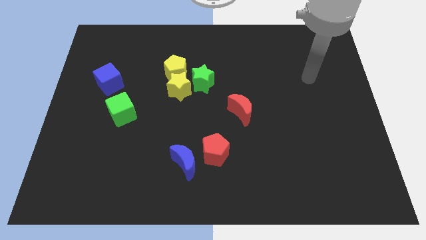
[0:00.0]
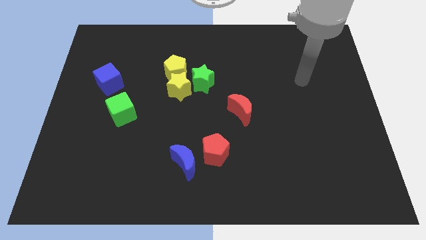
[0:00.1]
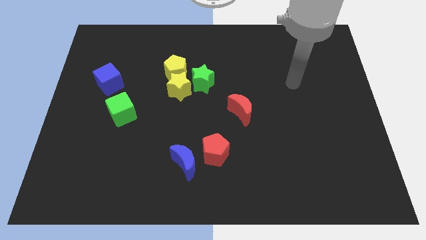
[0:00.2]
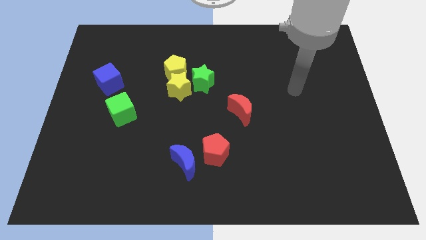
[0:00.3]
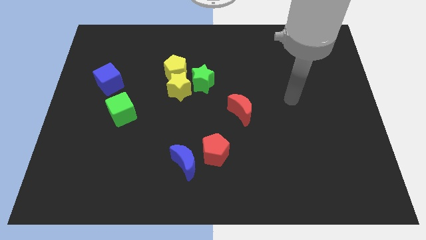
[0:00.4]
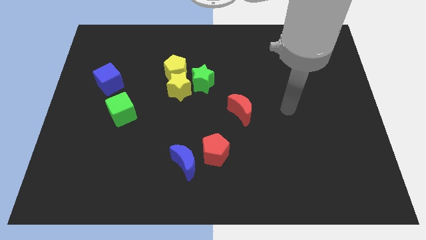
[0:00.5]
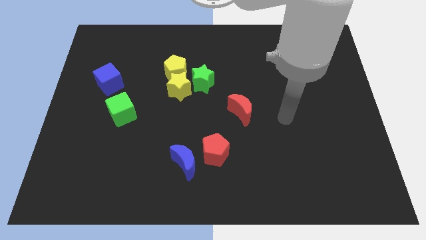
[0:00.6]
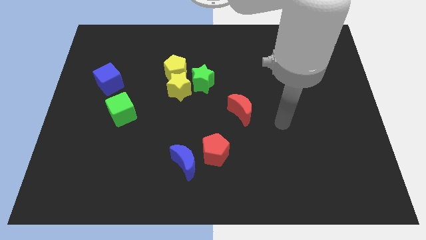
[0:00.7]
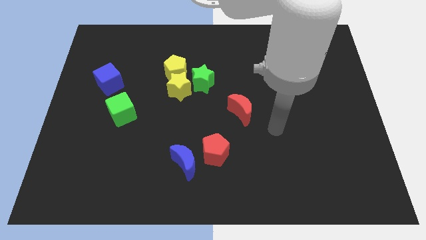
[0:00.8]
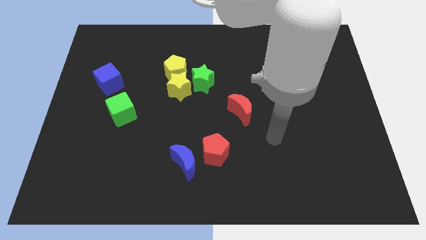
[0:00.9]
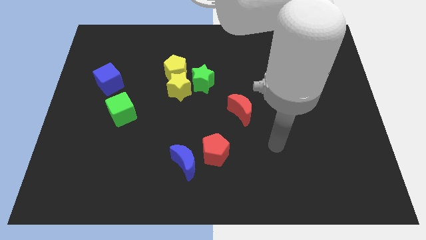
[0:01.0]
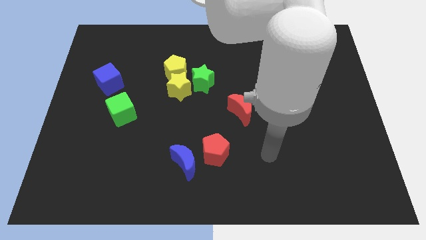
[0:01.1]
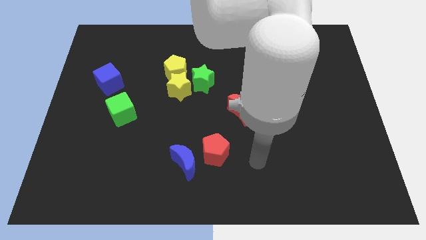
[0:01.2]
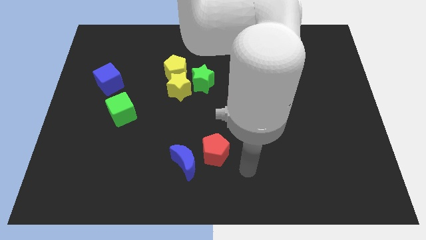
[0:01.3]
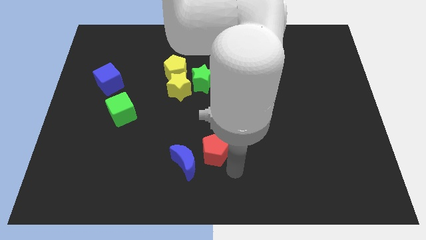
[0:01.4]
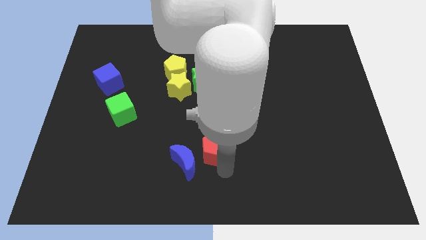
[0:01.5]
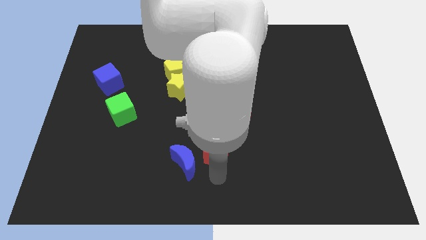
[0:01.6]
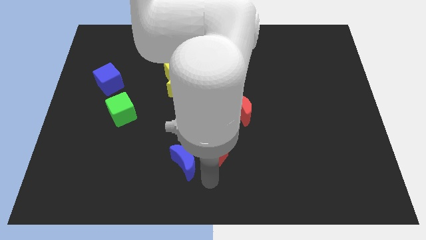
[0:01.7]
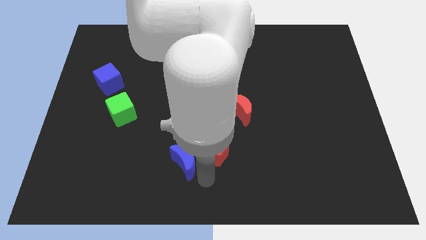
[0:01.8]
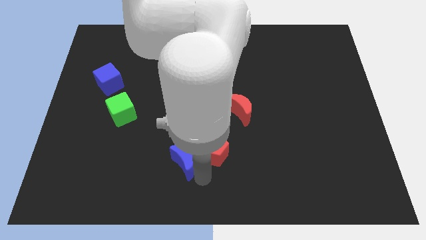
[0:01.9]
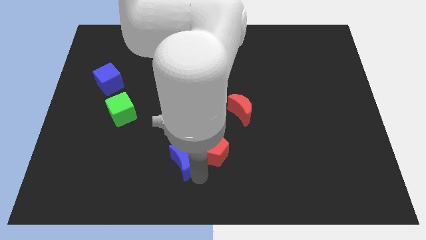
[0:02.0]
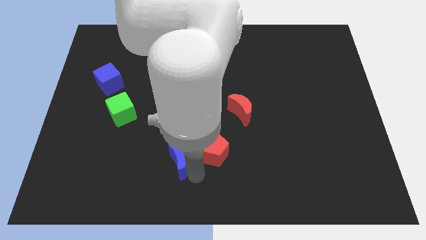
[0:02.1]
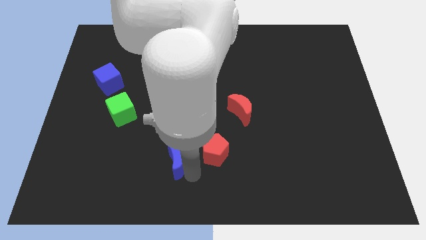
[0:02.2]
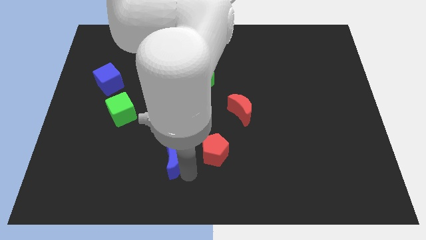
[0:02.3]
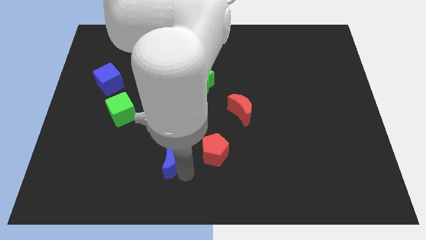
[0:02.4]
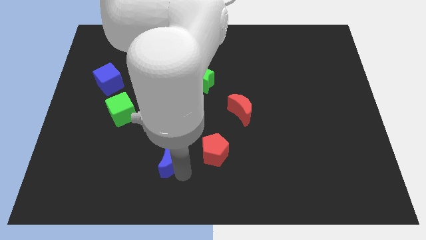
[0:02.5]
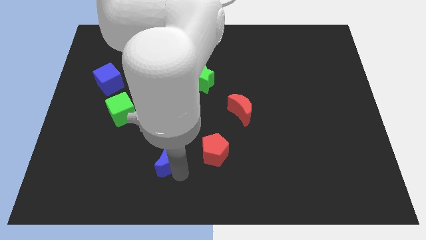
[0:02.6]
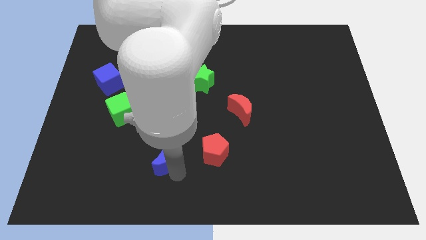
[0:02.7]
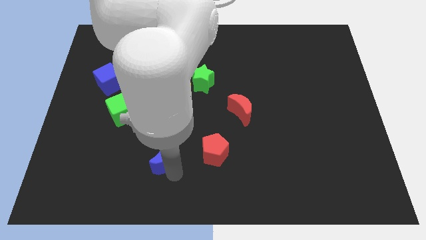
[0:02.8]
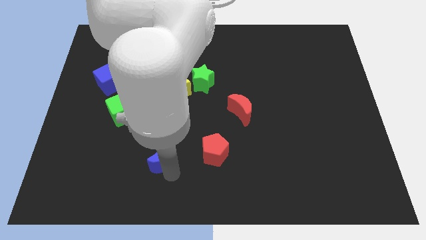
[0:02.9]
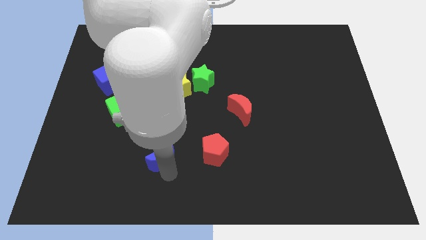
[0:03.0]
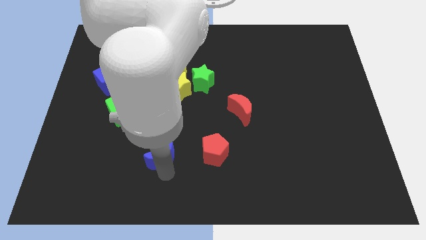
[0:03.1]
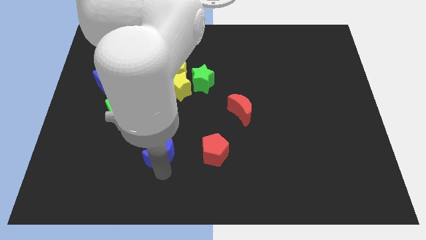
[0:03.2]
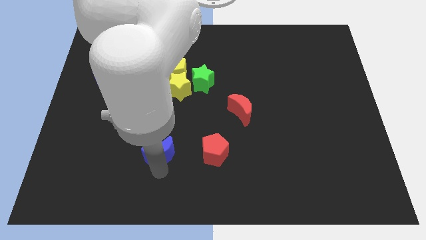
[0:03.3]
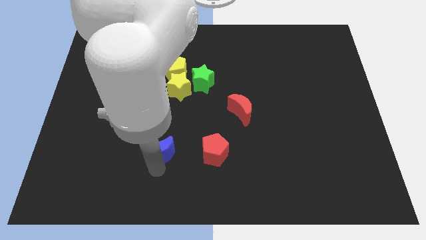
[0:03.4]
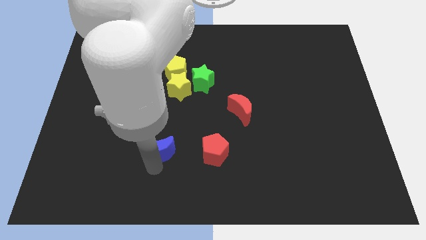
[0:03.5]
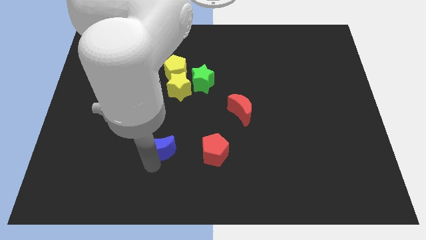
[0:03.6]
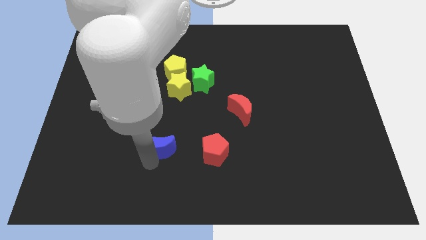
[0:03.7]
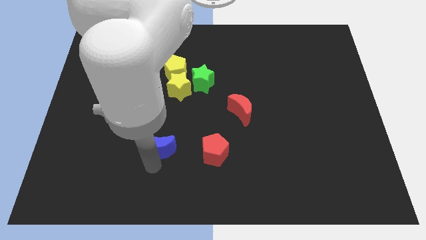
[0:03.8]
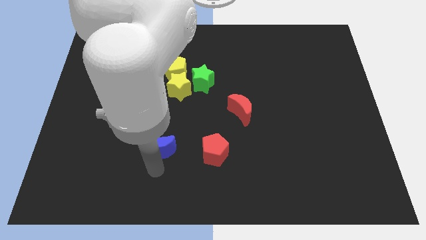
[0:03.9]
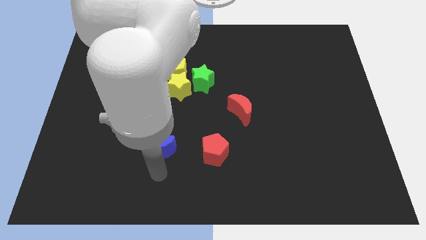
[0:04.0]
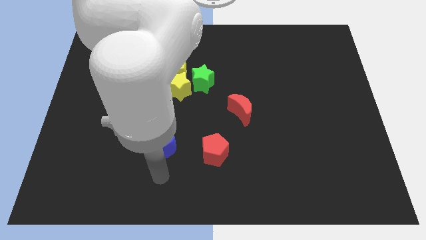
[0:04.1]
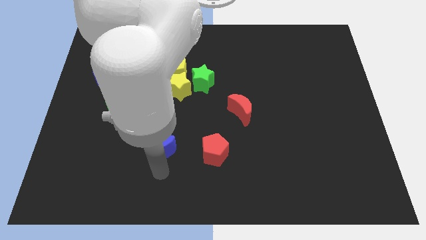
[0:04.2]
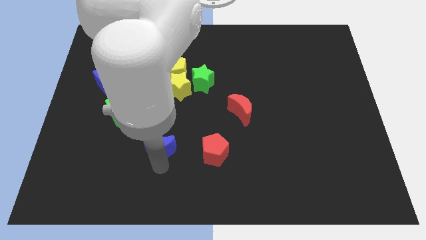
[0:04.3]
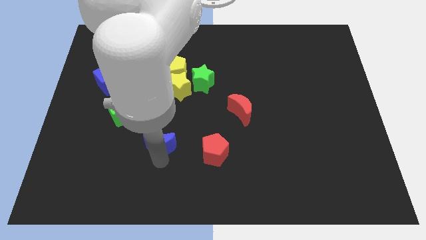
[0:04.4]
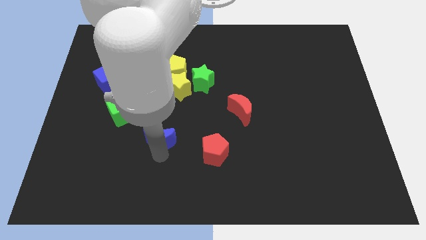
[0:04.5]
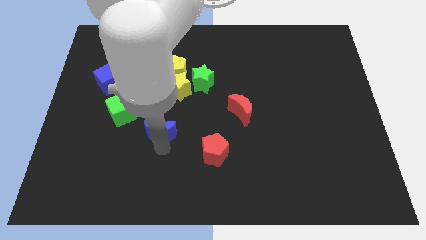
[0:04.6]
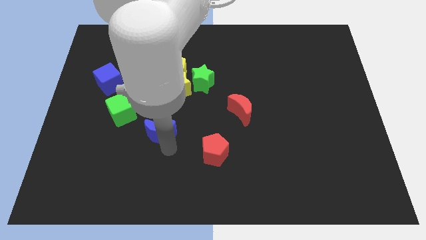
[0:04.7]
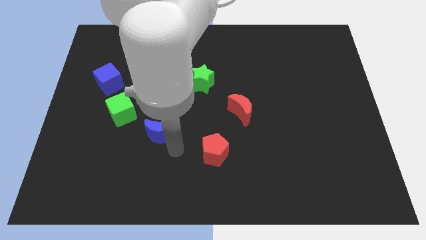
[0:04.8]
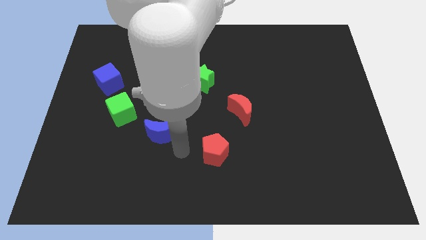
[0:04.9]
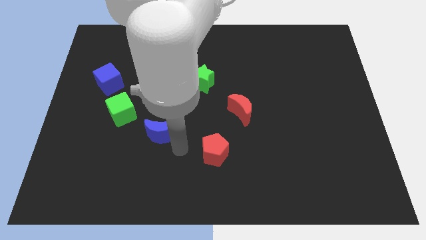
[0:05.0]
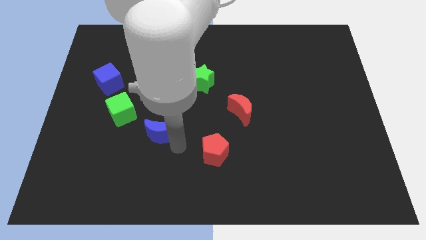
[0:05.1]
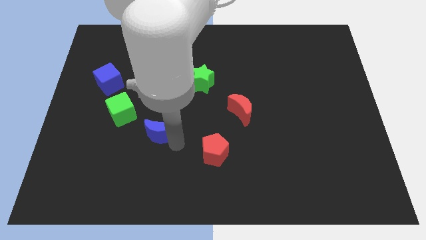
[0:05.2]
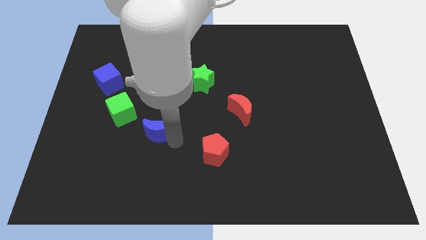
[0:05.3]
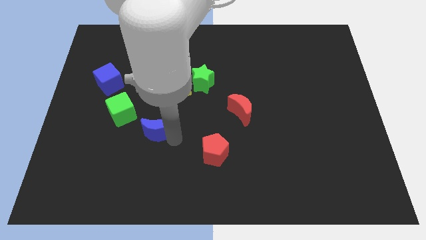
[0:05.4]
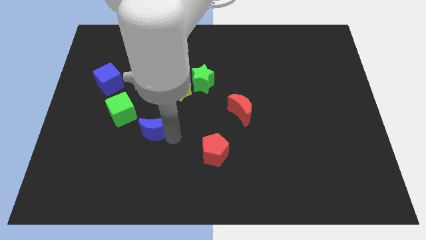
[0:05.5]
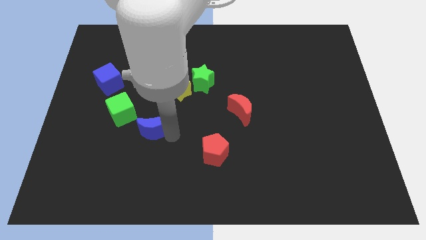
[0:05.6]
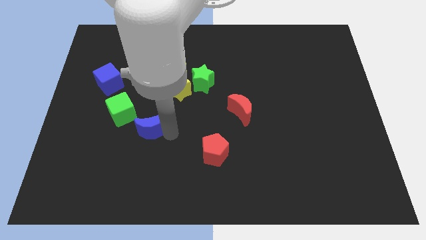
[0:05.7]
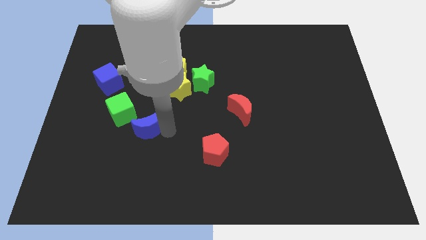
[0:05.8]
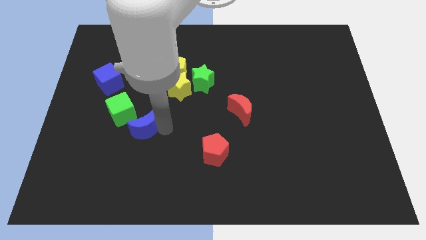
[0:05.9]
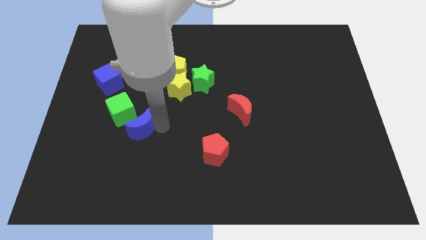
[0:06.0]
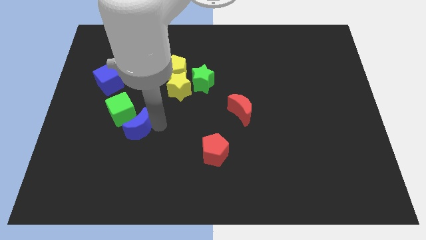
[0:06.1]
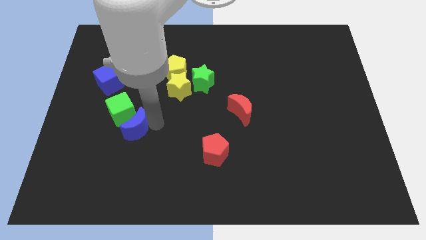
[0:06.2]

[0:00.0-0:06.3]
slide the blue moon to the green cube

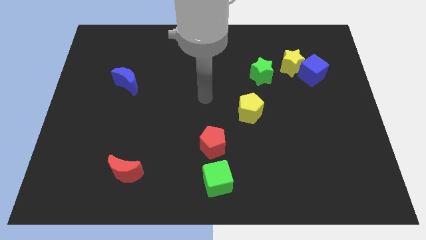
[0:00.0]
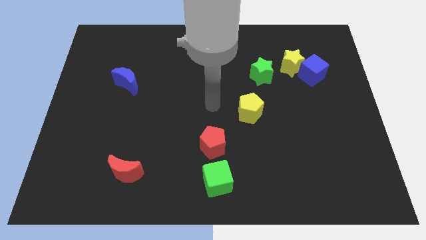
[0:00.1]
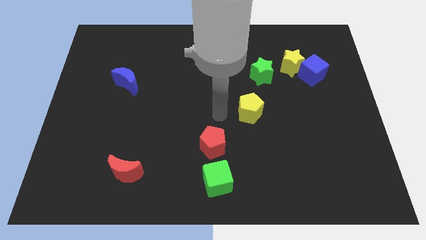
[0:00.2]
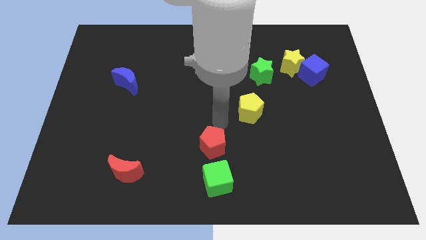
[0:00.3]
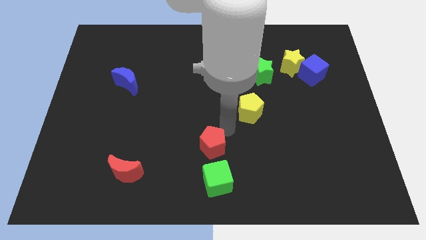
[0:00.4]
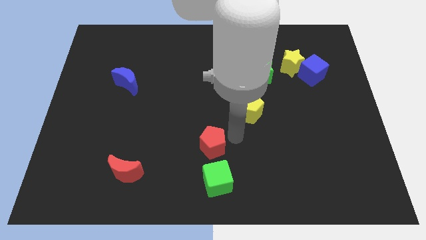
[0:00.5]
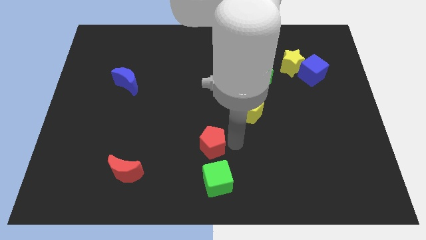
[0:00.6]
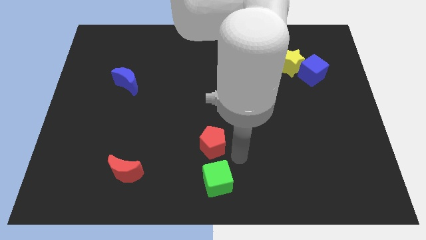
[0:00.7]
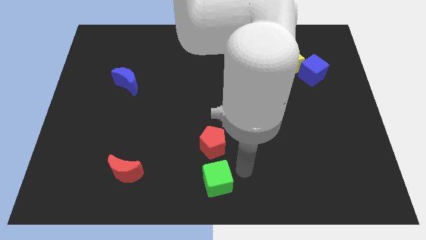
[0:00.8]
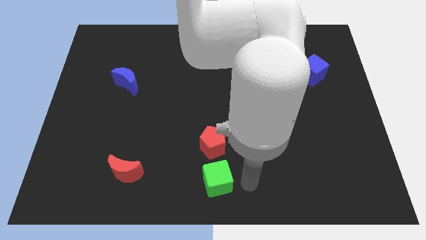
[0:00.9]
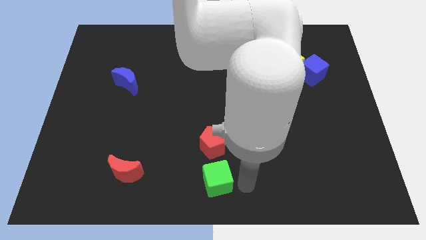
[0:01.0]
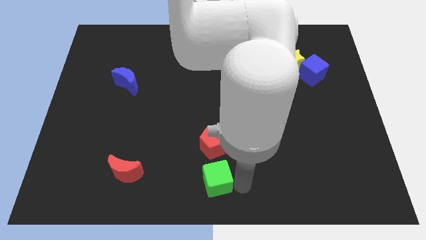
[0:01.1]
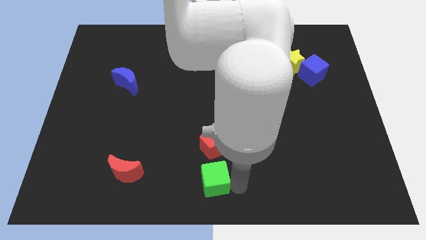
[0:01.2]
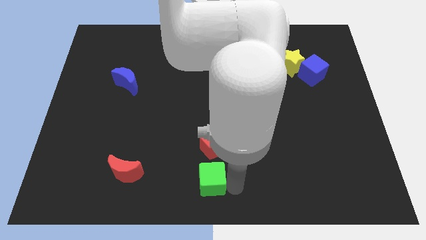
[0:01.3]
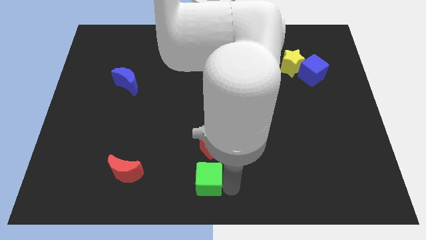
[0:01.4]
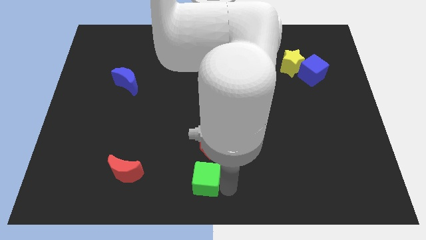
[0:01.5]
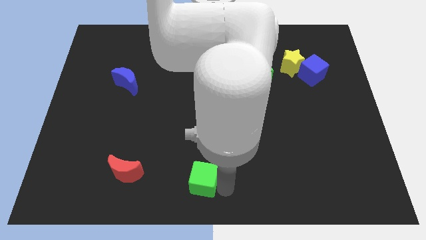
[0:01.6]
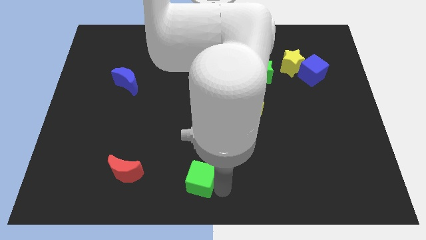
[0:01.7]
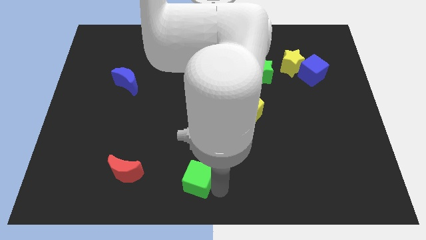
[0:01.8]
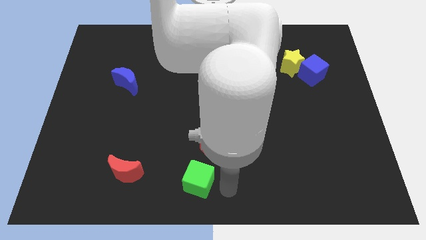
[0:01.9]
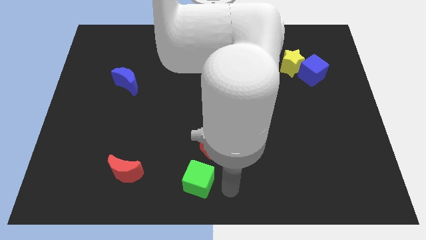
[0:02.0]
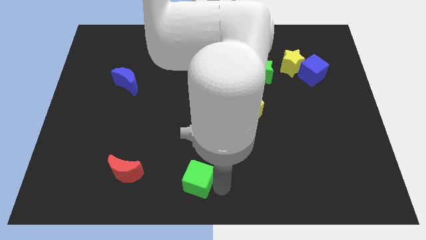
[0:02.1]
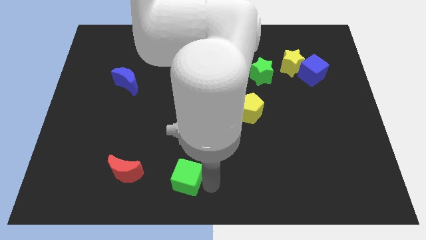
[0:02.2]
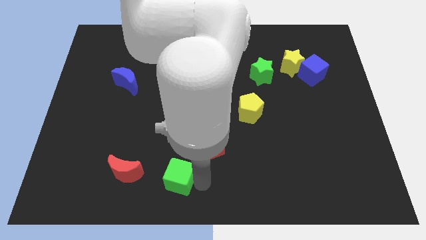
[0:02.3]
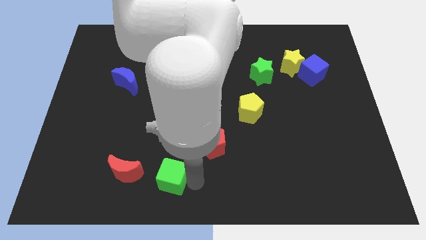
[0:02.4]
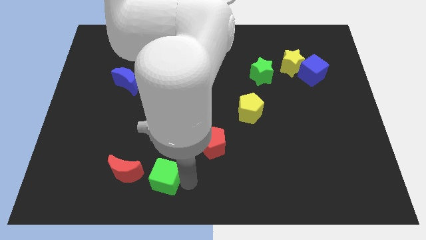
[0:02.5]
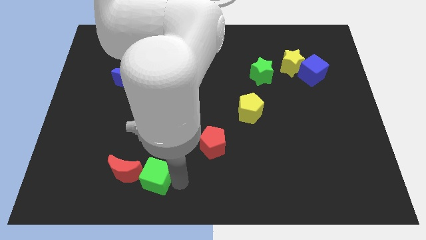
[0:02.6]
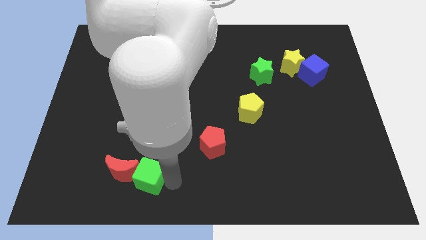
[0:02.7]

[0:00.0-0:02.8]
put the green cube to the red moon
